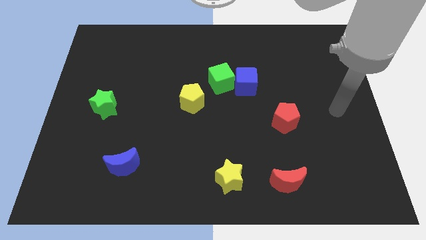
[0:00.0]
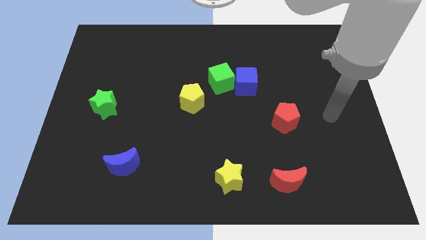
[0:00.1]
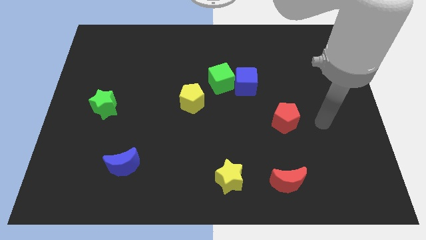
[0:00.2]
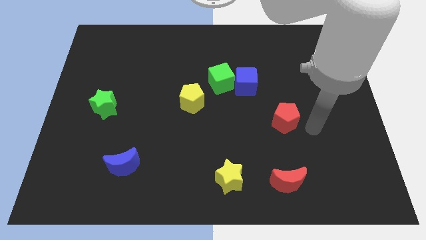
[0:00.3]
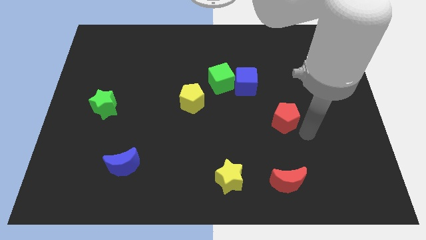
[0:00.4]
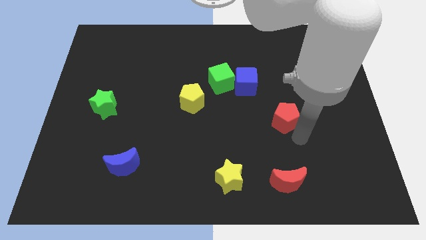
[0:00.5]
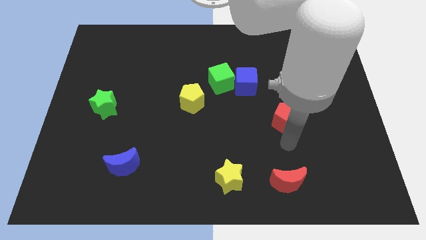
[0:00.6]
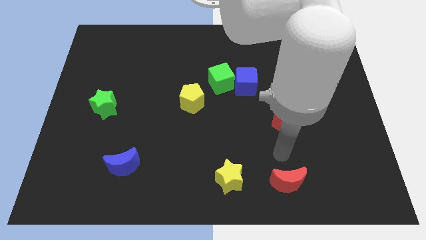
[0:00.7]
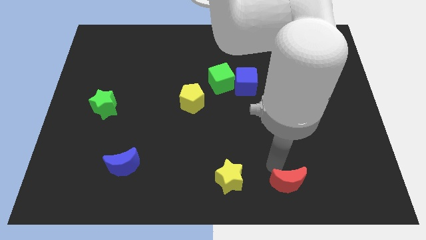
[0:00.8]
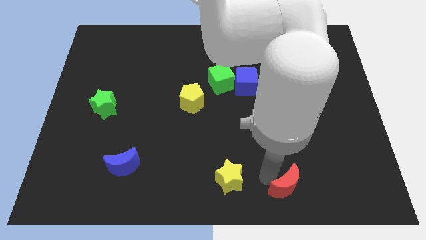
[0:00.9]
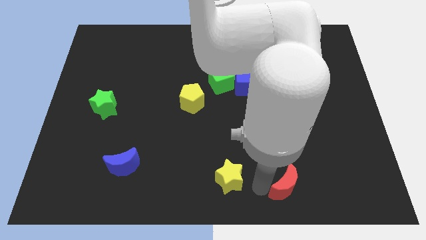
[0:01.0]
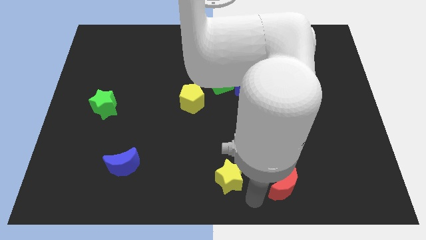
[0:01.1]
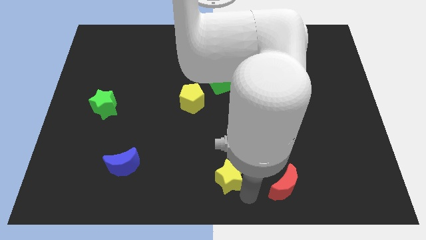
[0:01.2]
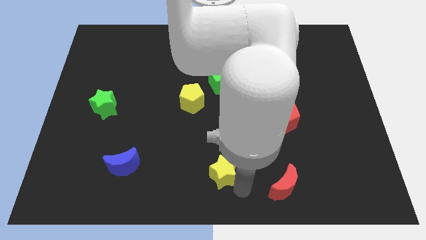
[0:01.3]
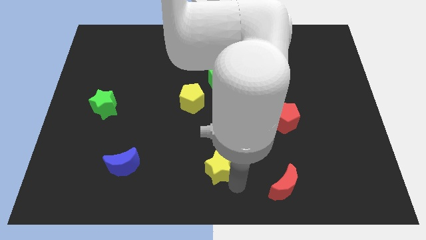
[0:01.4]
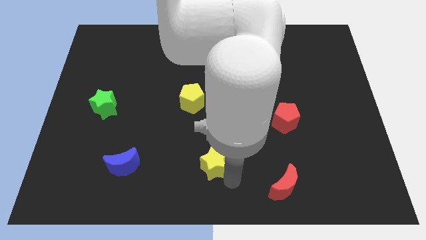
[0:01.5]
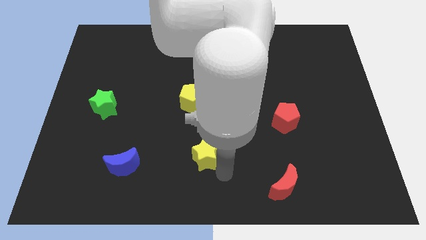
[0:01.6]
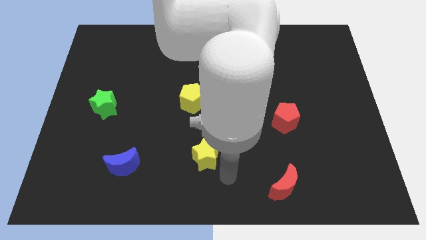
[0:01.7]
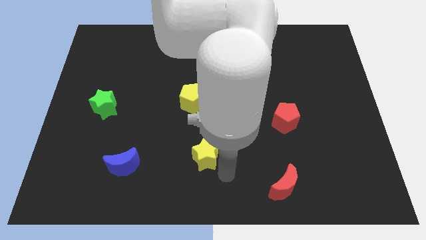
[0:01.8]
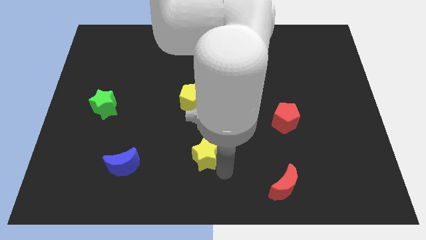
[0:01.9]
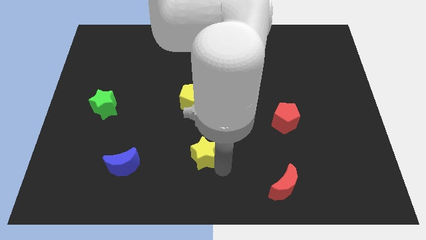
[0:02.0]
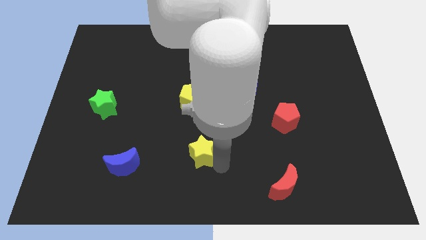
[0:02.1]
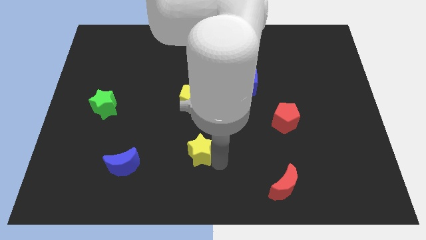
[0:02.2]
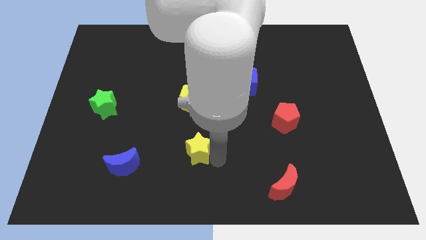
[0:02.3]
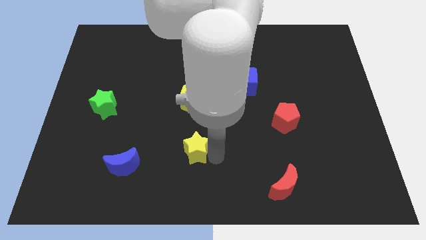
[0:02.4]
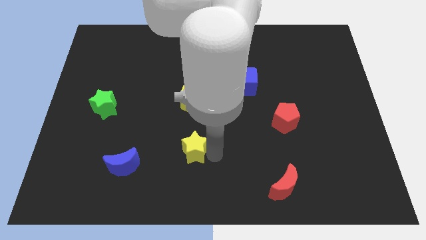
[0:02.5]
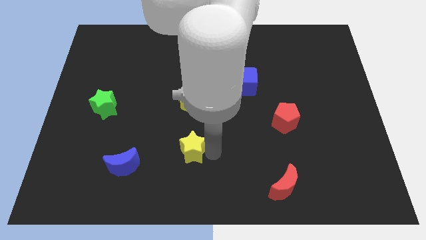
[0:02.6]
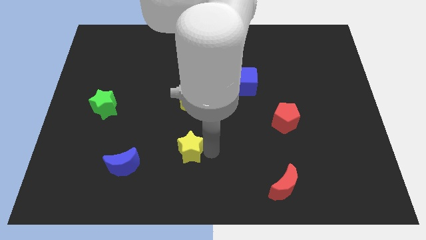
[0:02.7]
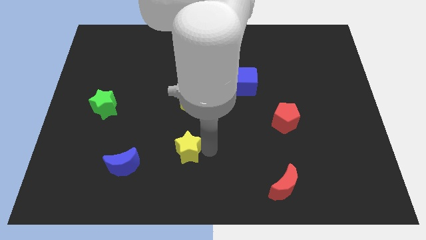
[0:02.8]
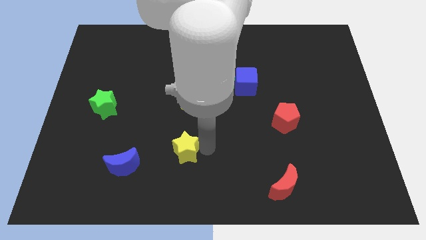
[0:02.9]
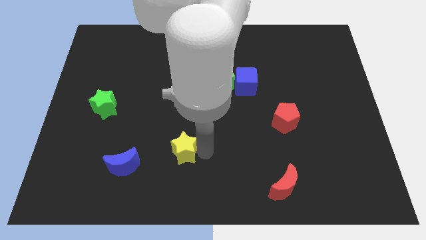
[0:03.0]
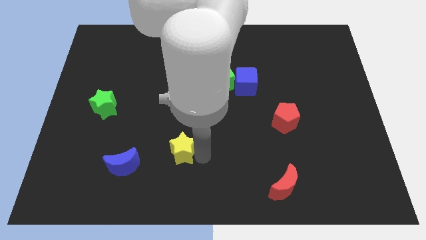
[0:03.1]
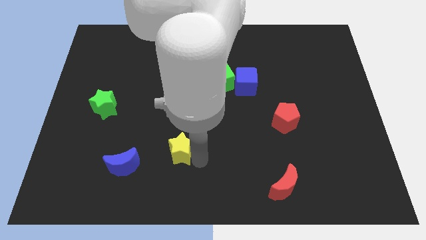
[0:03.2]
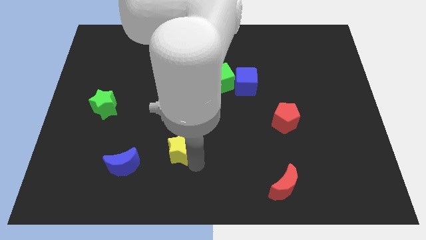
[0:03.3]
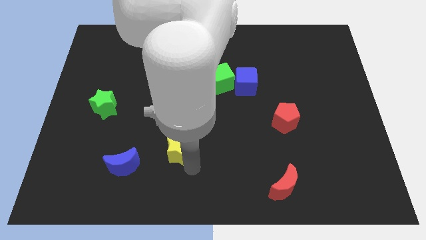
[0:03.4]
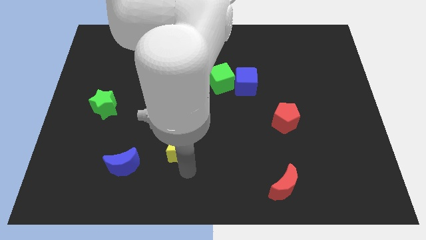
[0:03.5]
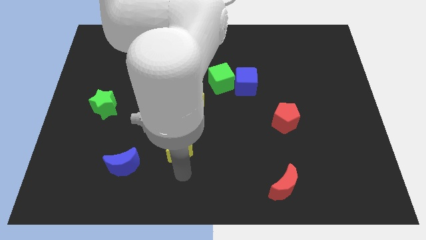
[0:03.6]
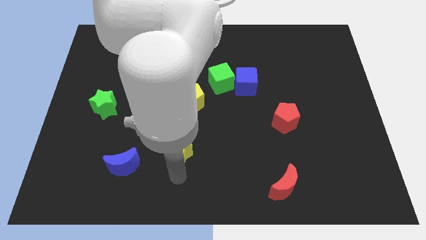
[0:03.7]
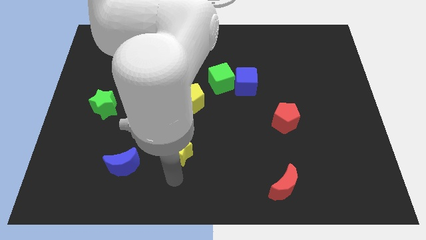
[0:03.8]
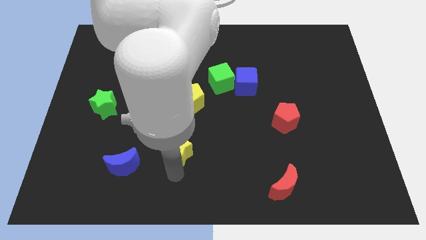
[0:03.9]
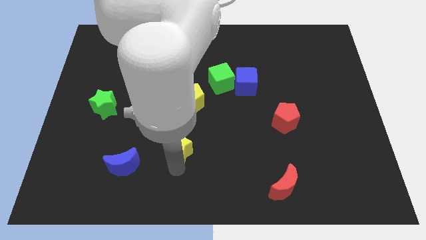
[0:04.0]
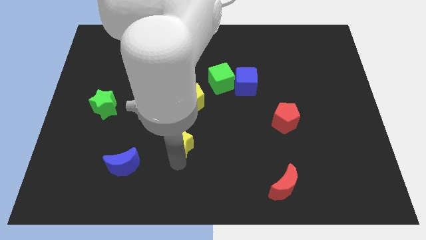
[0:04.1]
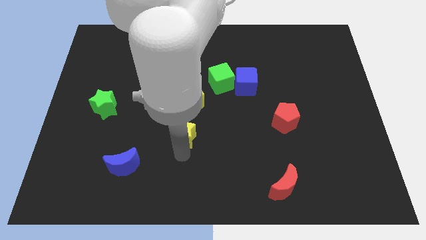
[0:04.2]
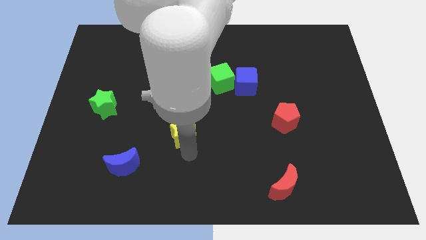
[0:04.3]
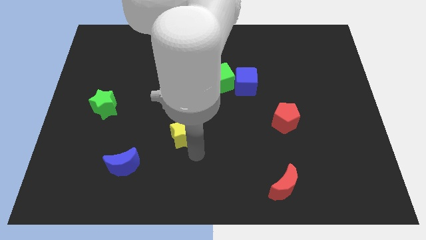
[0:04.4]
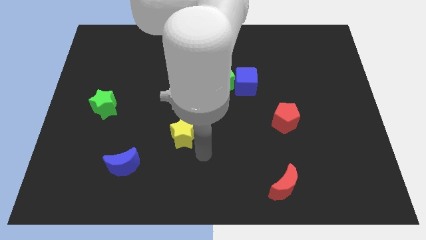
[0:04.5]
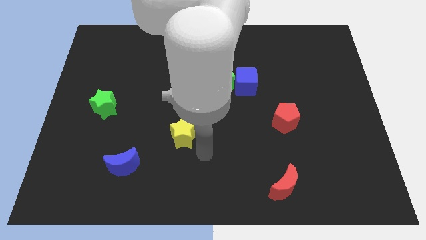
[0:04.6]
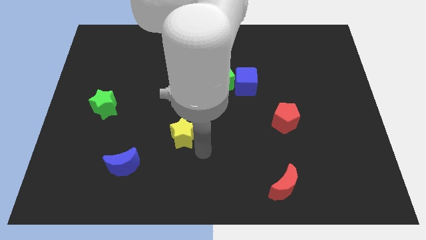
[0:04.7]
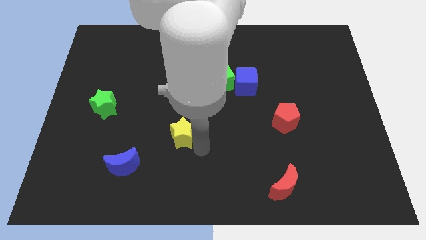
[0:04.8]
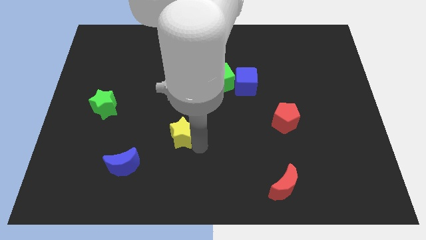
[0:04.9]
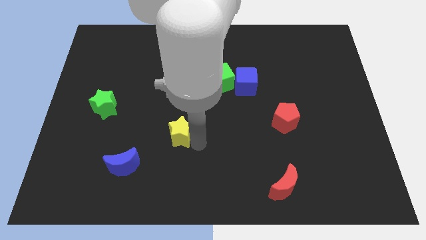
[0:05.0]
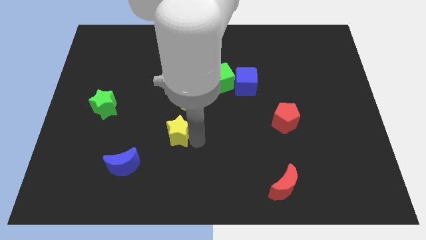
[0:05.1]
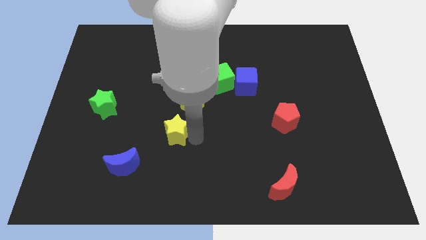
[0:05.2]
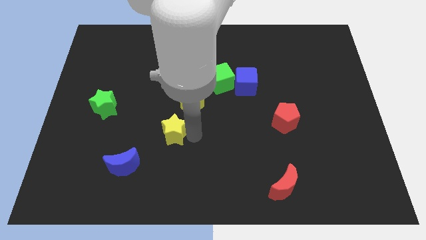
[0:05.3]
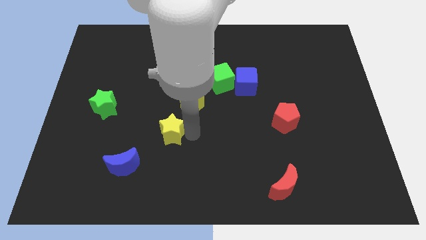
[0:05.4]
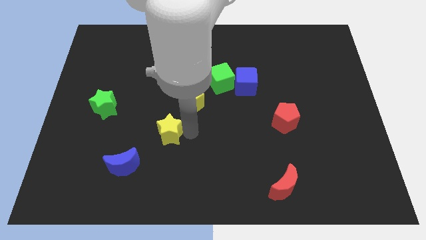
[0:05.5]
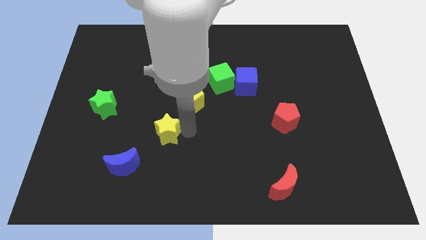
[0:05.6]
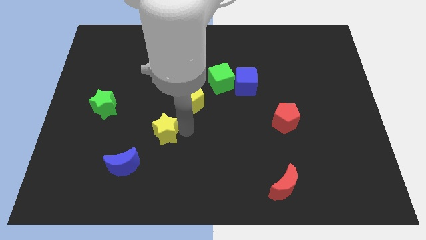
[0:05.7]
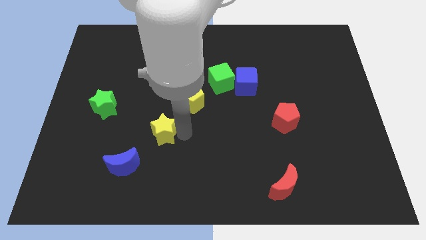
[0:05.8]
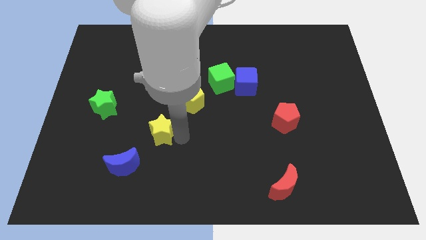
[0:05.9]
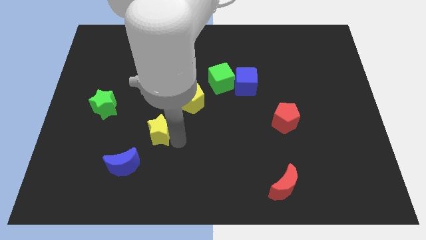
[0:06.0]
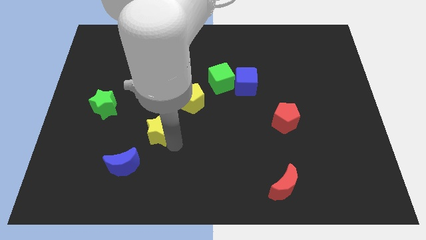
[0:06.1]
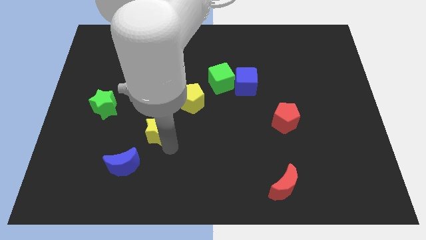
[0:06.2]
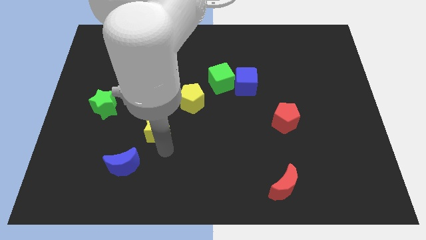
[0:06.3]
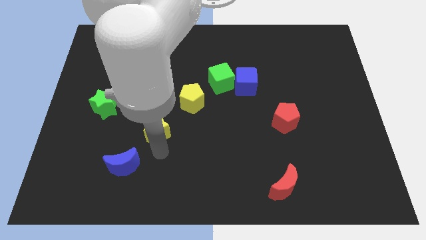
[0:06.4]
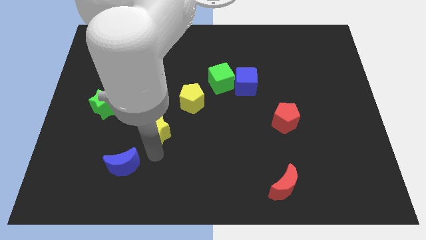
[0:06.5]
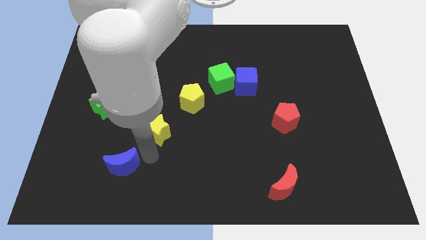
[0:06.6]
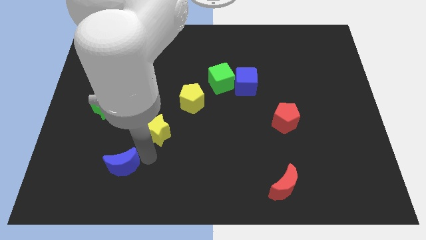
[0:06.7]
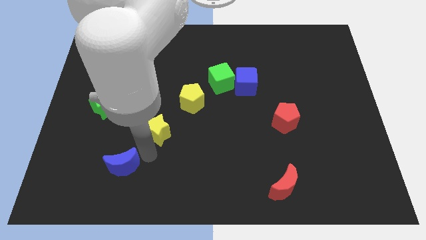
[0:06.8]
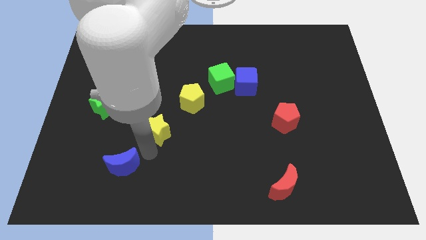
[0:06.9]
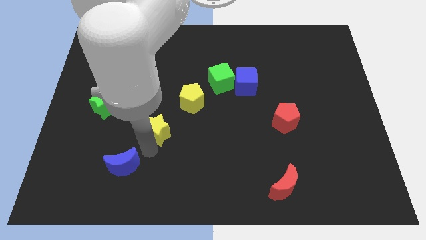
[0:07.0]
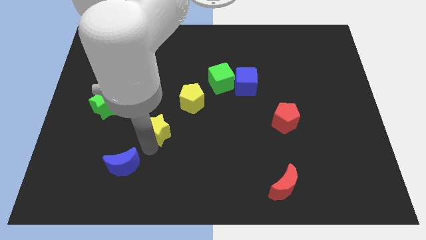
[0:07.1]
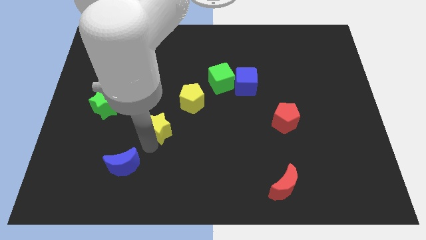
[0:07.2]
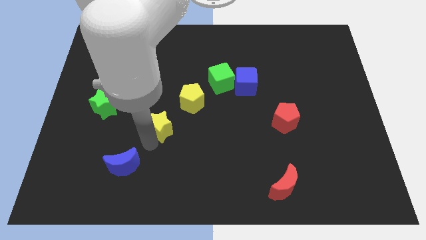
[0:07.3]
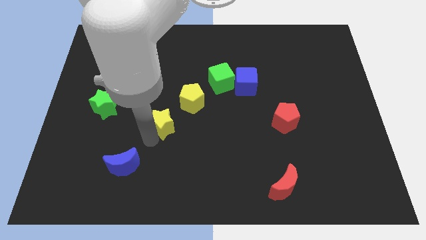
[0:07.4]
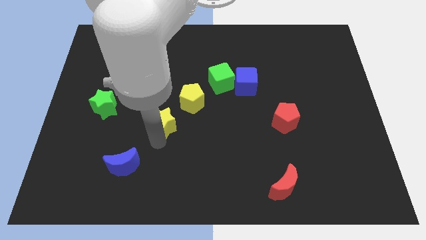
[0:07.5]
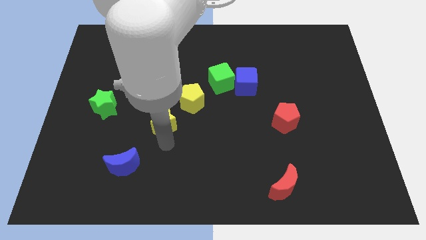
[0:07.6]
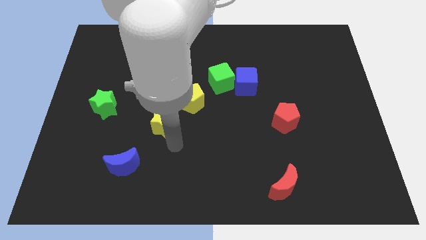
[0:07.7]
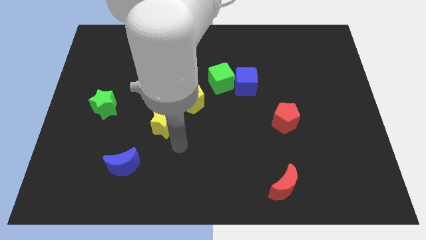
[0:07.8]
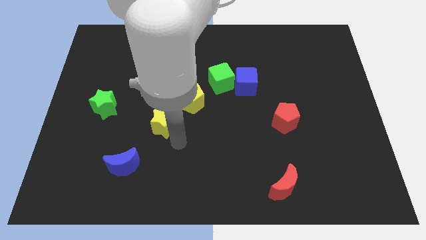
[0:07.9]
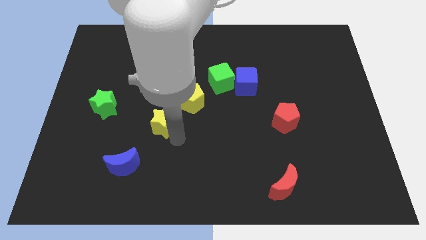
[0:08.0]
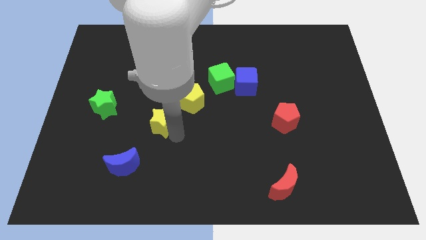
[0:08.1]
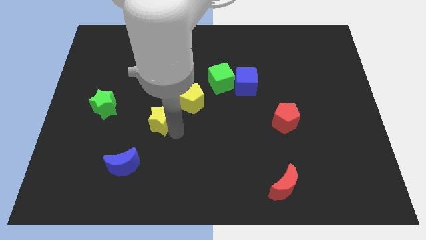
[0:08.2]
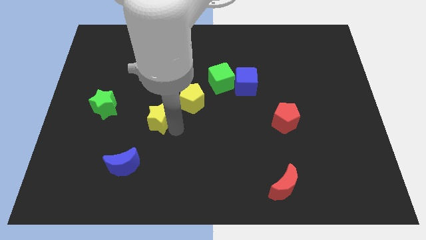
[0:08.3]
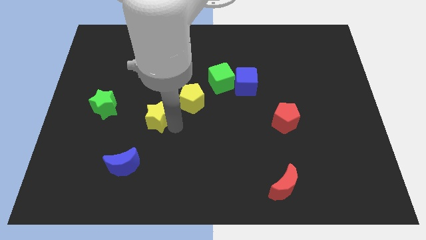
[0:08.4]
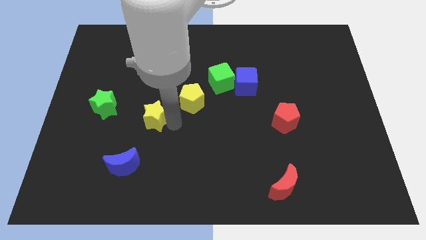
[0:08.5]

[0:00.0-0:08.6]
put the yellow star just left of the yellow pentagon
